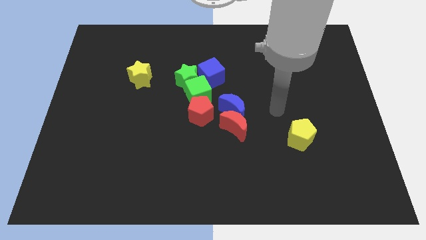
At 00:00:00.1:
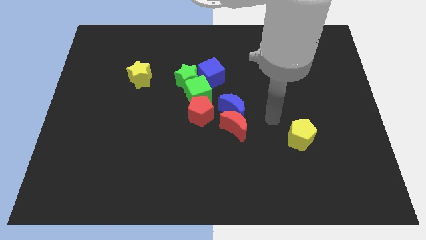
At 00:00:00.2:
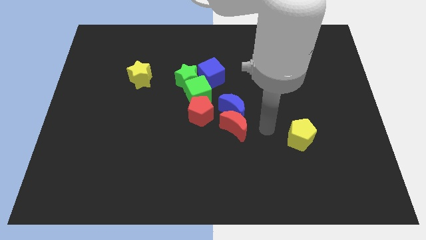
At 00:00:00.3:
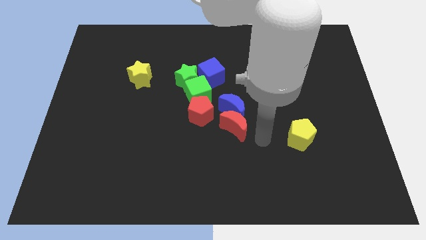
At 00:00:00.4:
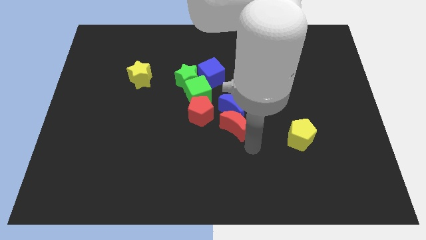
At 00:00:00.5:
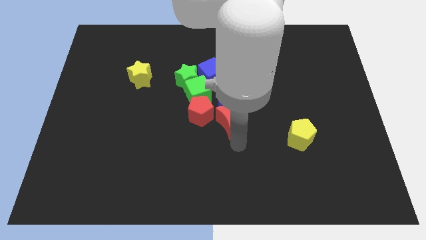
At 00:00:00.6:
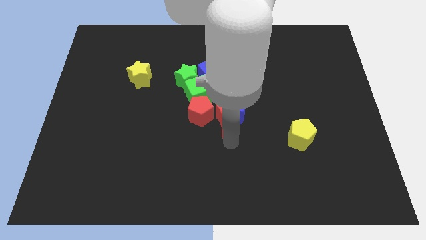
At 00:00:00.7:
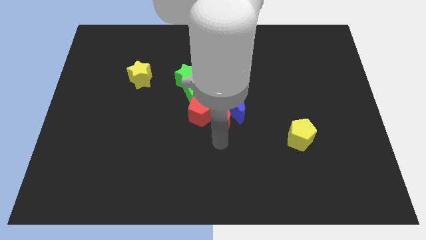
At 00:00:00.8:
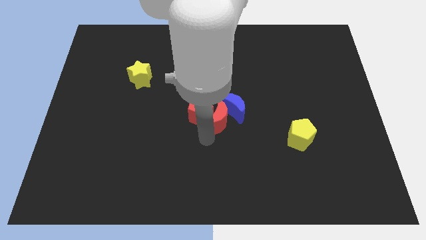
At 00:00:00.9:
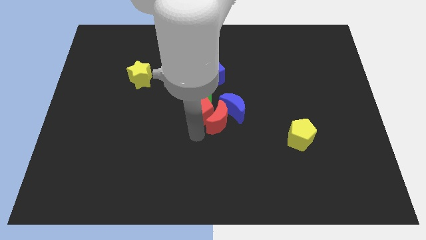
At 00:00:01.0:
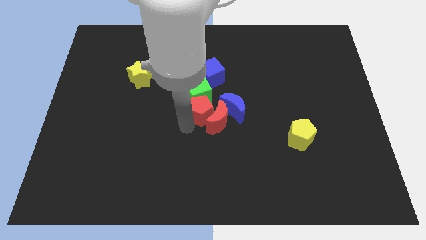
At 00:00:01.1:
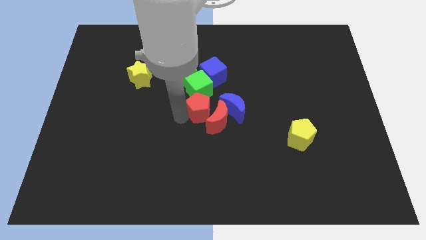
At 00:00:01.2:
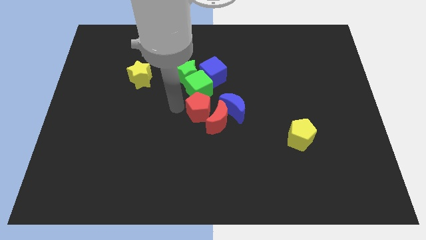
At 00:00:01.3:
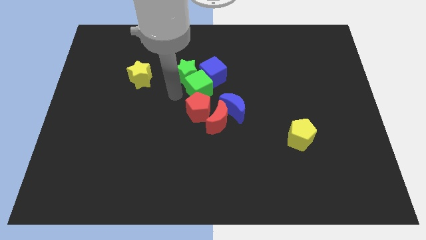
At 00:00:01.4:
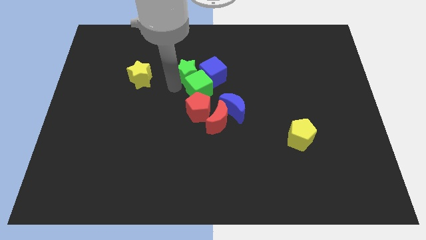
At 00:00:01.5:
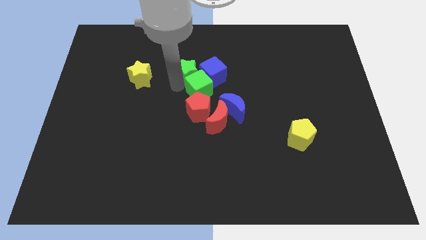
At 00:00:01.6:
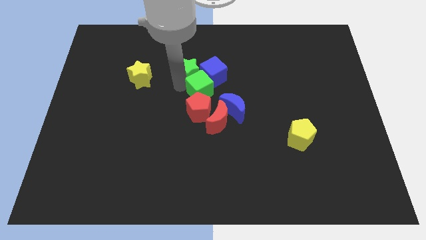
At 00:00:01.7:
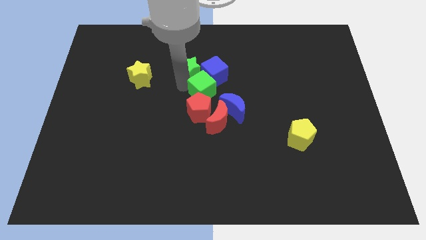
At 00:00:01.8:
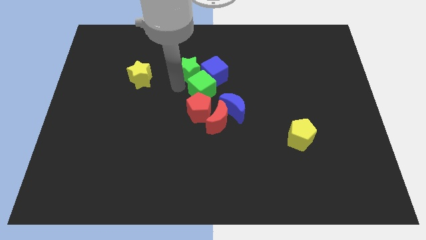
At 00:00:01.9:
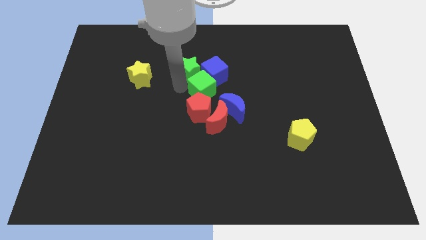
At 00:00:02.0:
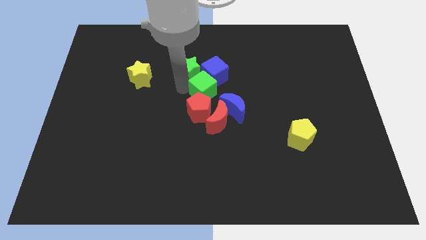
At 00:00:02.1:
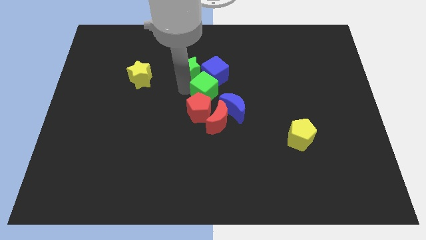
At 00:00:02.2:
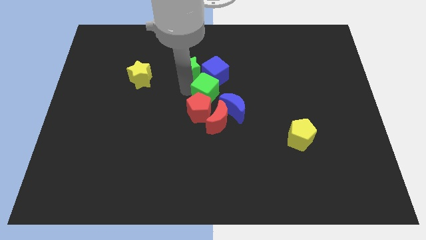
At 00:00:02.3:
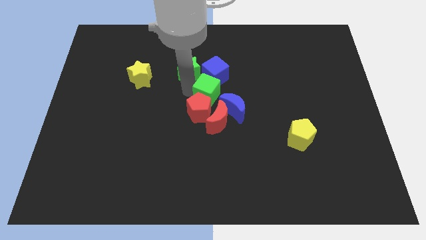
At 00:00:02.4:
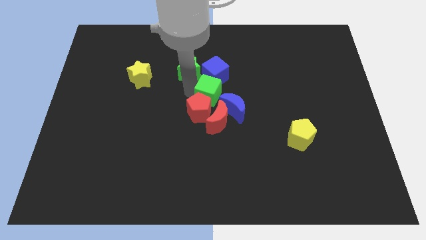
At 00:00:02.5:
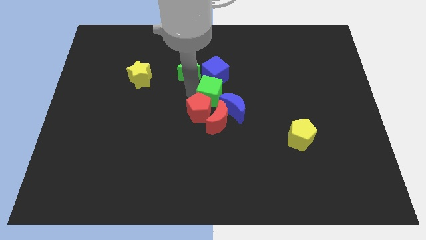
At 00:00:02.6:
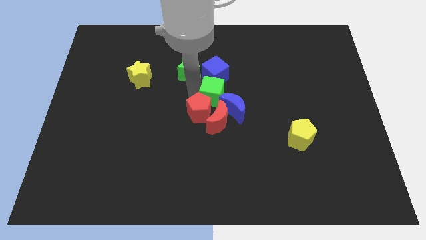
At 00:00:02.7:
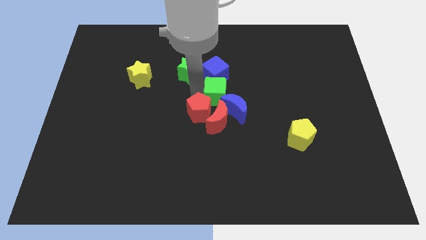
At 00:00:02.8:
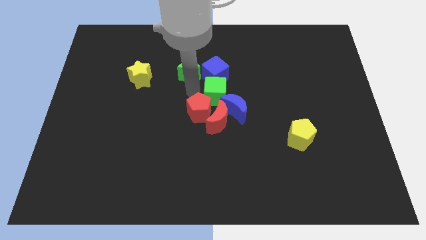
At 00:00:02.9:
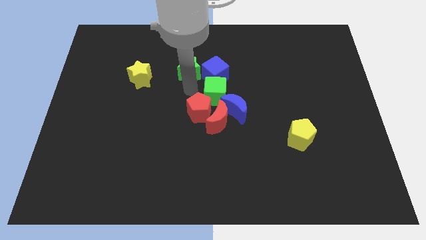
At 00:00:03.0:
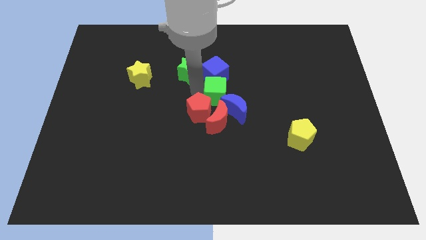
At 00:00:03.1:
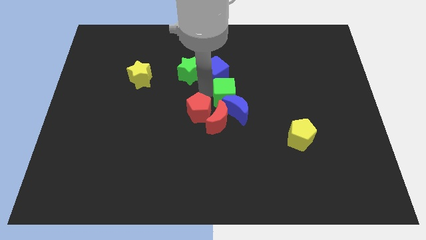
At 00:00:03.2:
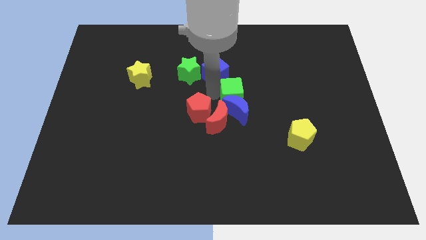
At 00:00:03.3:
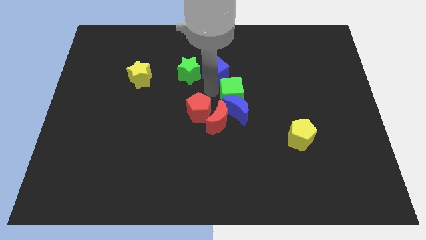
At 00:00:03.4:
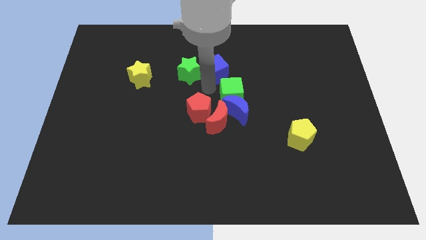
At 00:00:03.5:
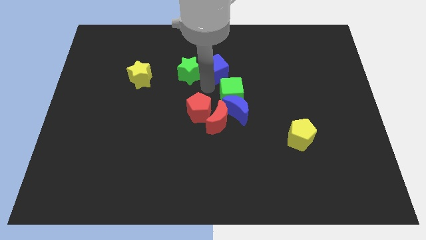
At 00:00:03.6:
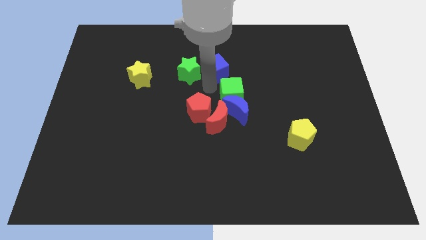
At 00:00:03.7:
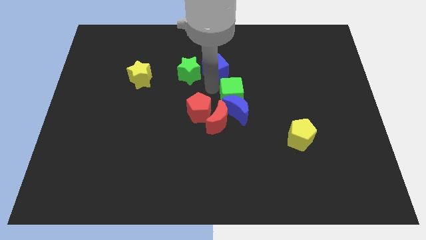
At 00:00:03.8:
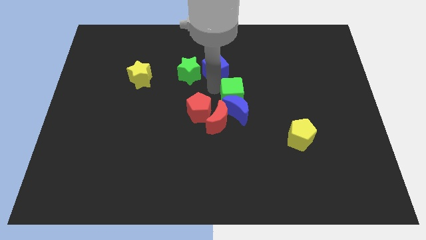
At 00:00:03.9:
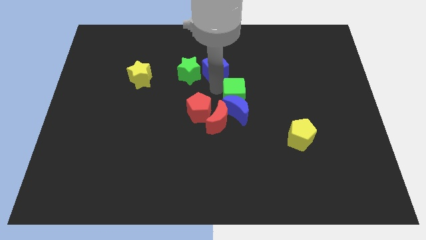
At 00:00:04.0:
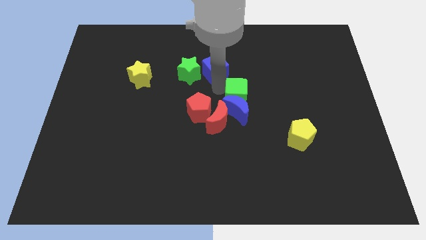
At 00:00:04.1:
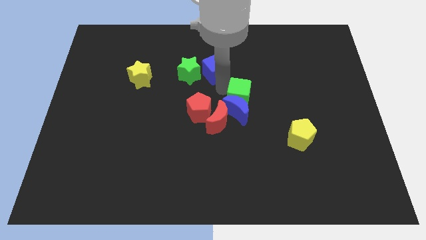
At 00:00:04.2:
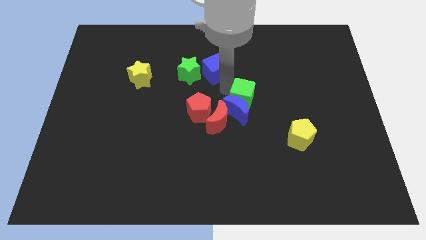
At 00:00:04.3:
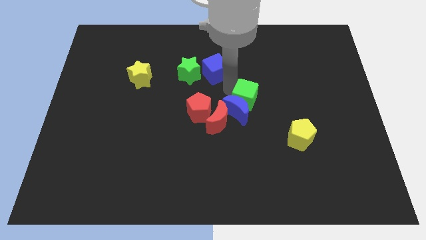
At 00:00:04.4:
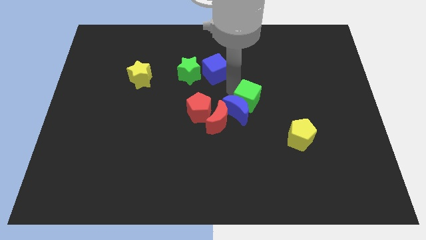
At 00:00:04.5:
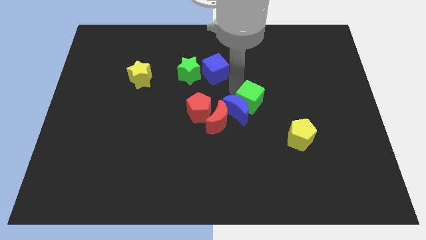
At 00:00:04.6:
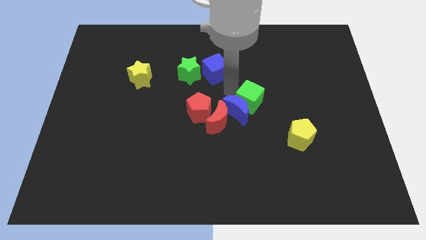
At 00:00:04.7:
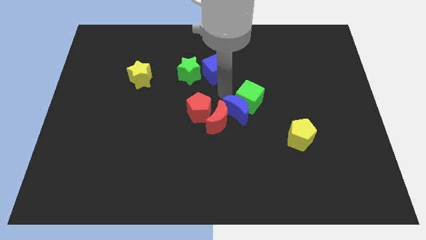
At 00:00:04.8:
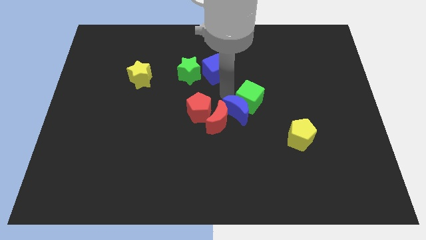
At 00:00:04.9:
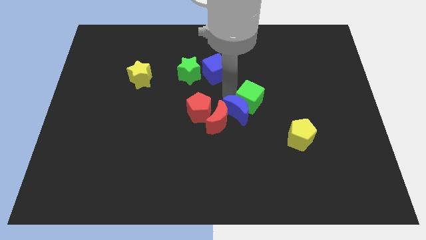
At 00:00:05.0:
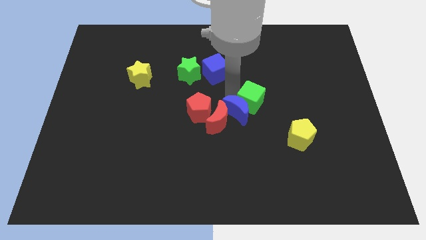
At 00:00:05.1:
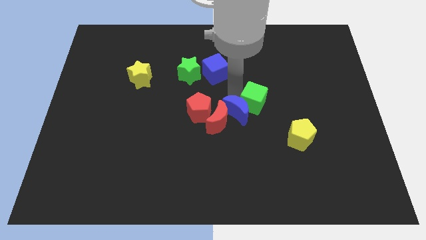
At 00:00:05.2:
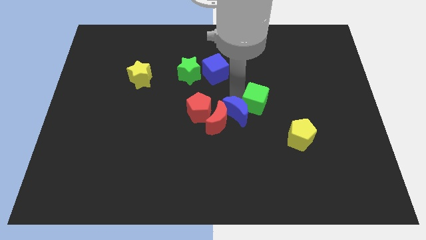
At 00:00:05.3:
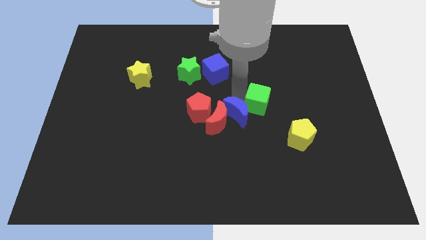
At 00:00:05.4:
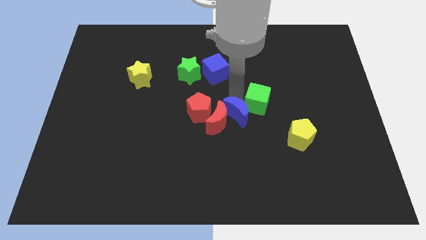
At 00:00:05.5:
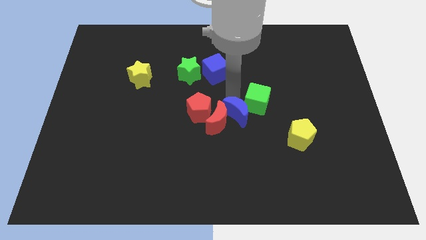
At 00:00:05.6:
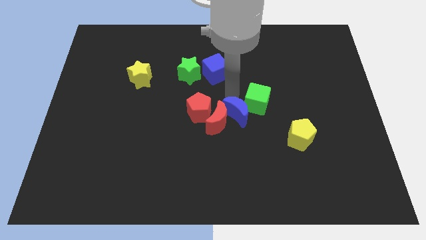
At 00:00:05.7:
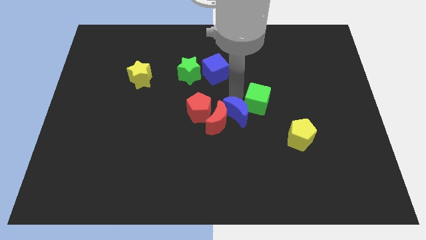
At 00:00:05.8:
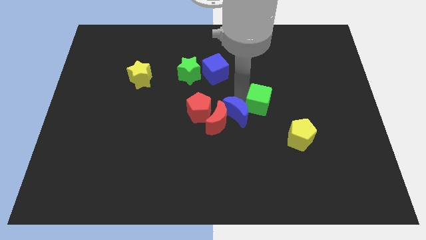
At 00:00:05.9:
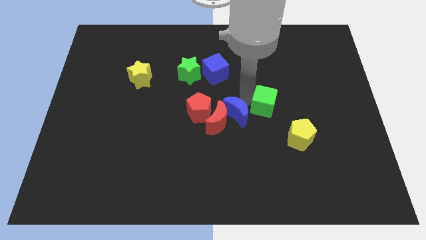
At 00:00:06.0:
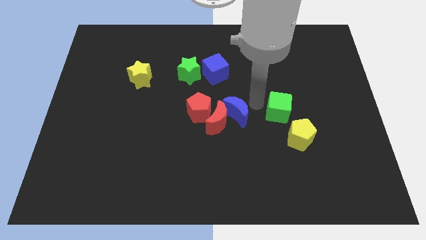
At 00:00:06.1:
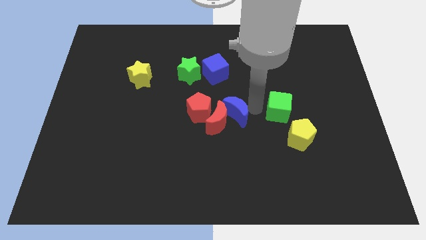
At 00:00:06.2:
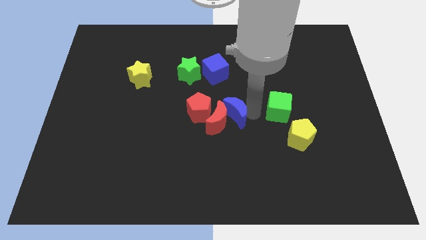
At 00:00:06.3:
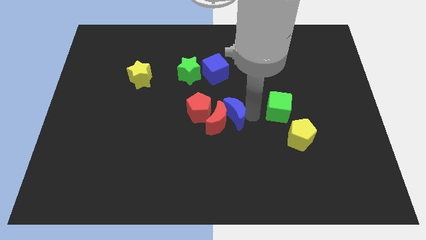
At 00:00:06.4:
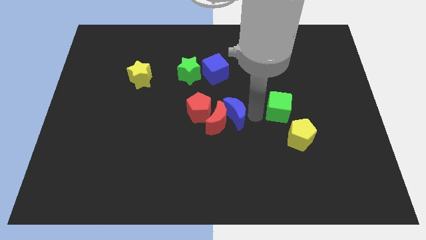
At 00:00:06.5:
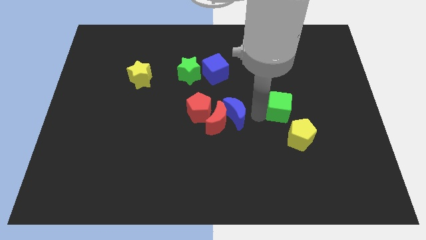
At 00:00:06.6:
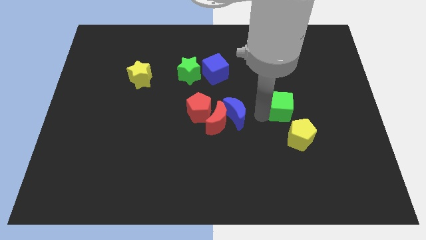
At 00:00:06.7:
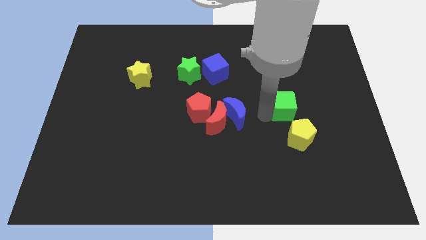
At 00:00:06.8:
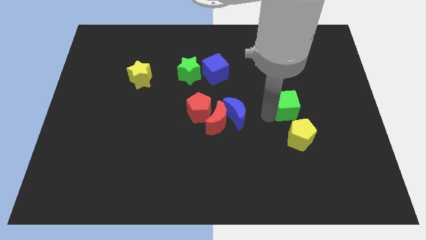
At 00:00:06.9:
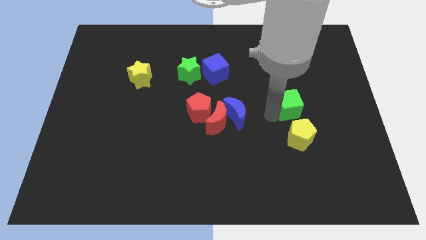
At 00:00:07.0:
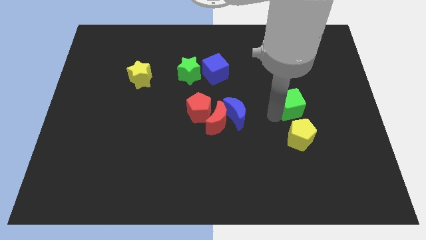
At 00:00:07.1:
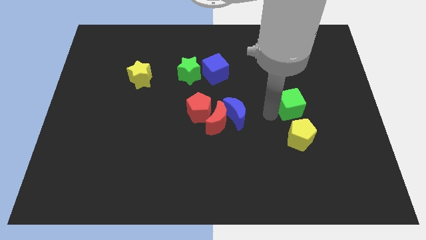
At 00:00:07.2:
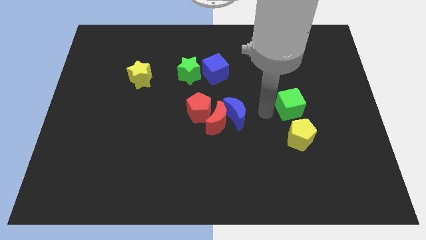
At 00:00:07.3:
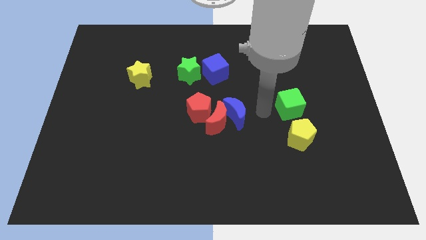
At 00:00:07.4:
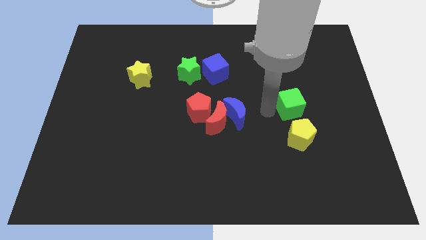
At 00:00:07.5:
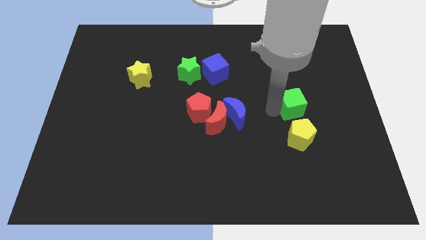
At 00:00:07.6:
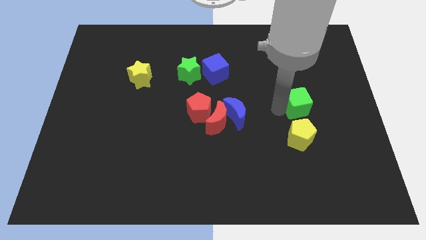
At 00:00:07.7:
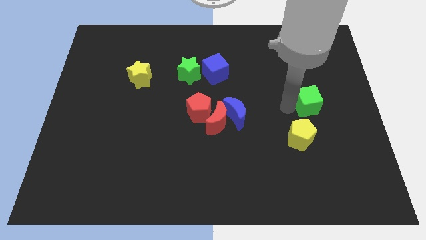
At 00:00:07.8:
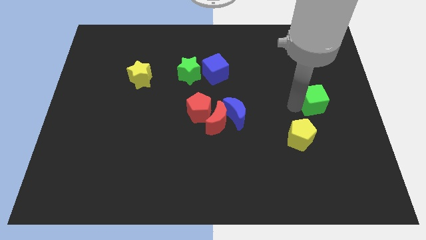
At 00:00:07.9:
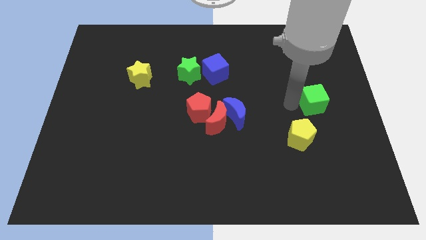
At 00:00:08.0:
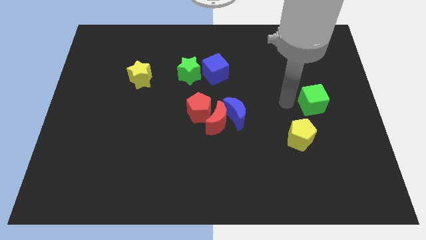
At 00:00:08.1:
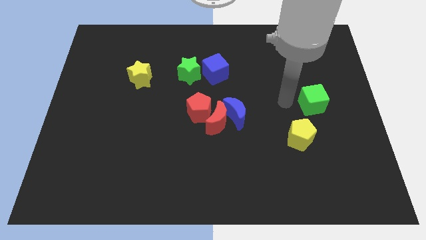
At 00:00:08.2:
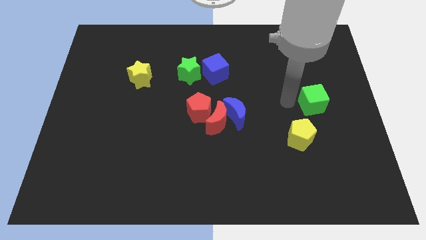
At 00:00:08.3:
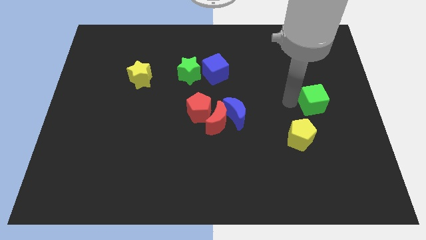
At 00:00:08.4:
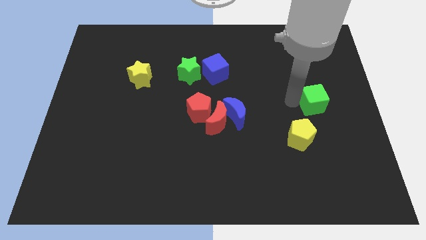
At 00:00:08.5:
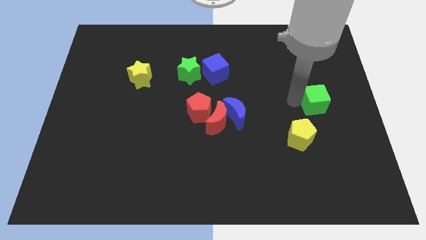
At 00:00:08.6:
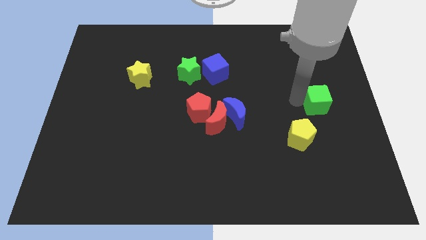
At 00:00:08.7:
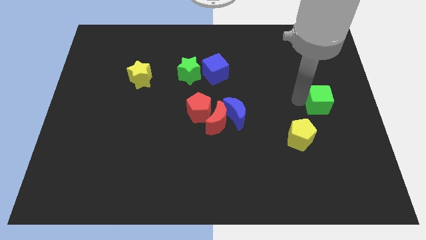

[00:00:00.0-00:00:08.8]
slide the green cube to the right side
